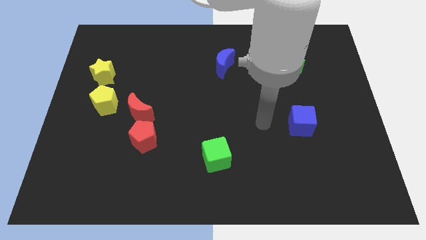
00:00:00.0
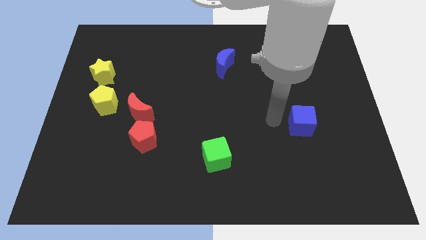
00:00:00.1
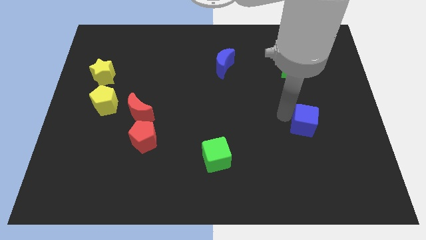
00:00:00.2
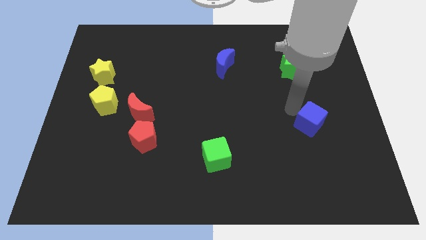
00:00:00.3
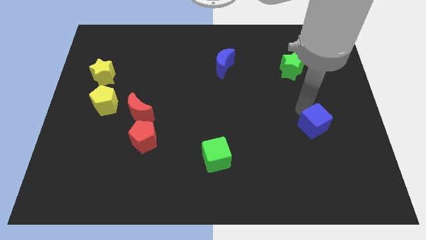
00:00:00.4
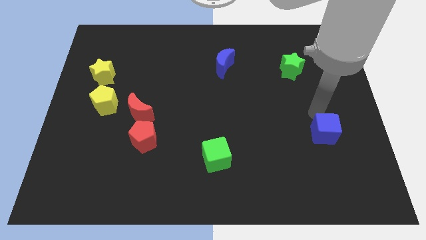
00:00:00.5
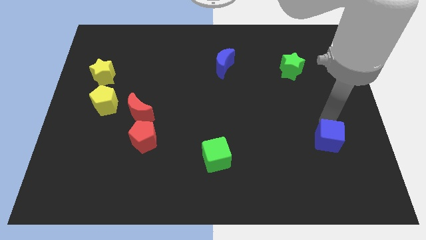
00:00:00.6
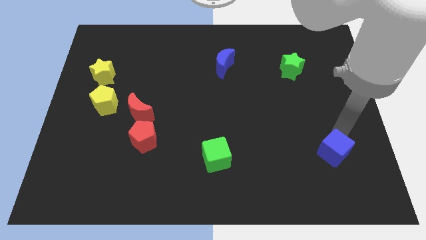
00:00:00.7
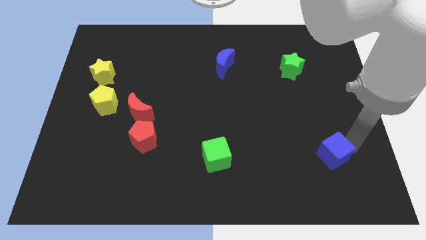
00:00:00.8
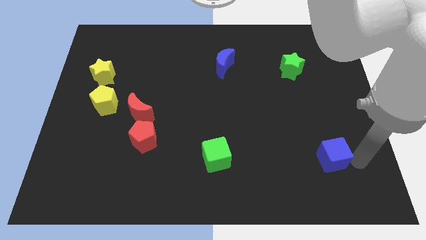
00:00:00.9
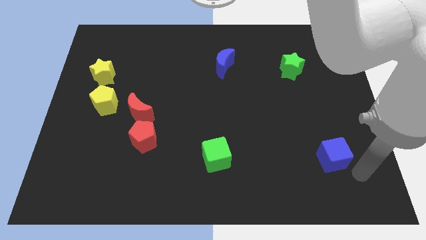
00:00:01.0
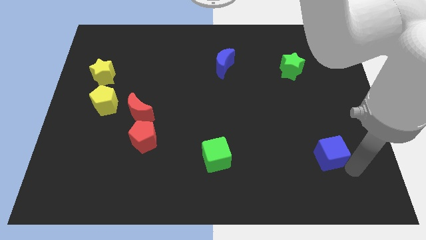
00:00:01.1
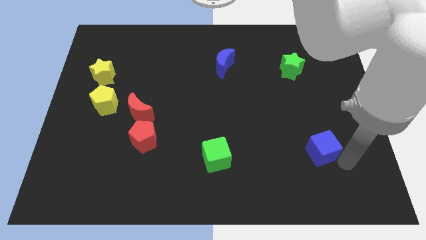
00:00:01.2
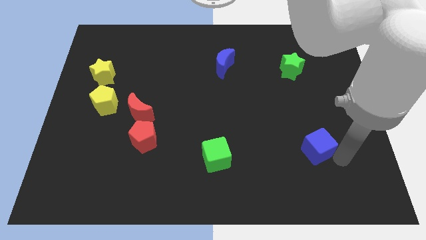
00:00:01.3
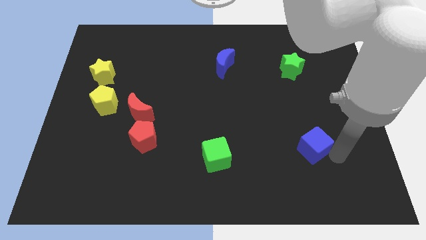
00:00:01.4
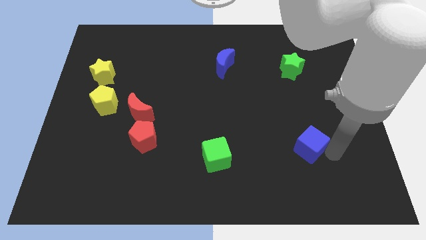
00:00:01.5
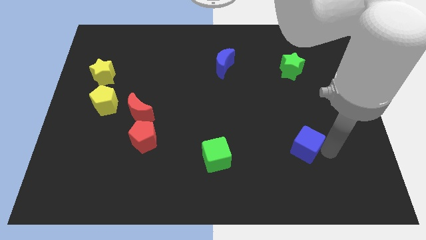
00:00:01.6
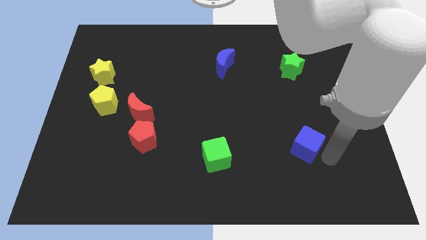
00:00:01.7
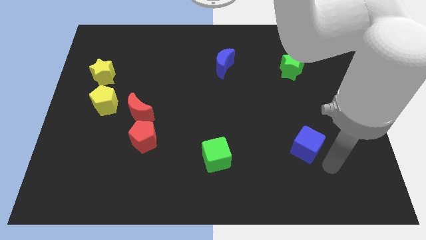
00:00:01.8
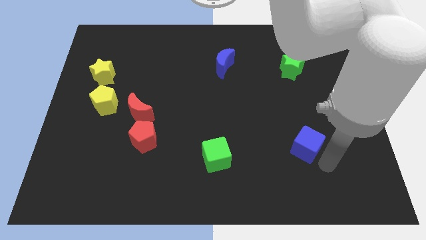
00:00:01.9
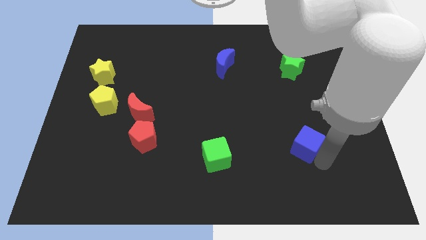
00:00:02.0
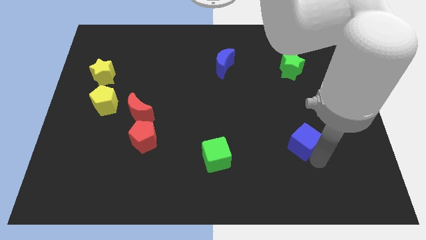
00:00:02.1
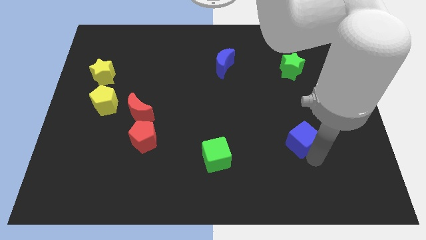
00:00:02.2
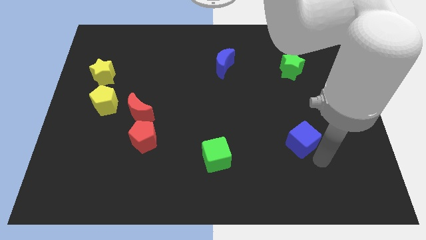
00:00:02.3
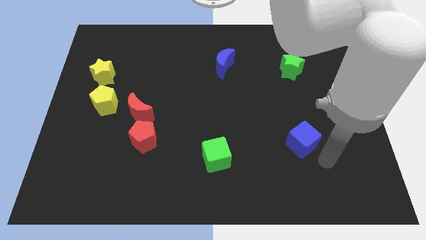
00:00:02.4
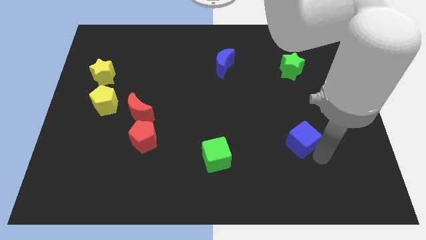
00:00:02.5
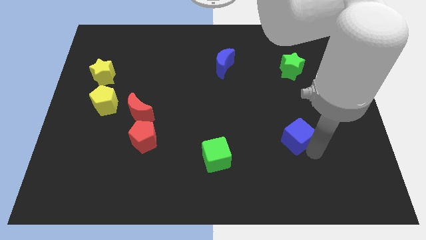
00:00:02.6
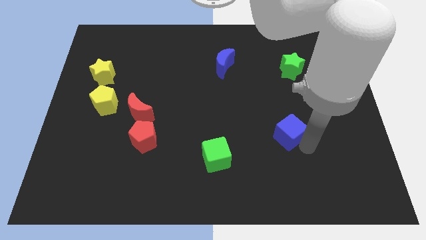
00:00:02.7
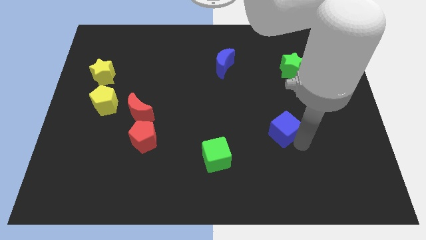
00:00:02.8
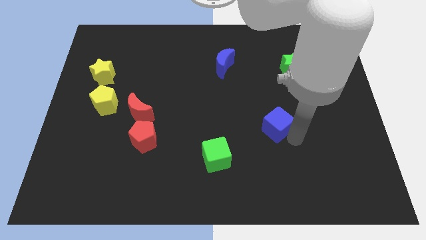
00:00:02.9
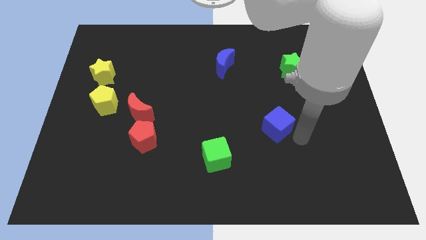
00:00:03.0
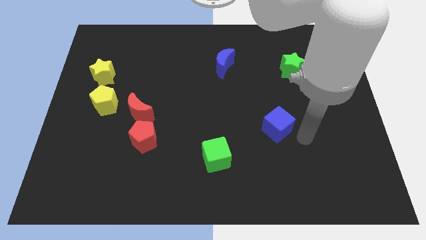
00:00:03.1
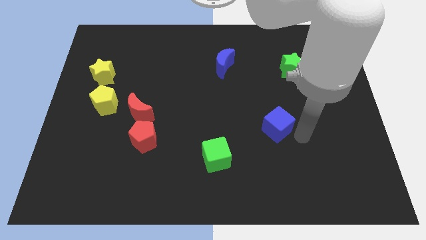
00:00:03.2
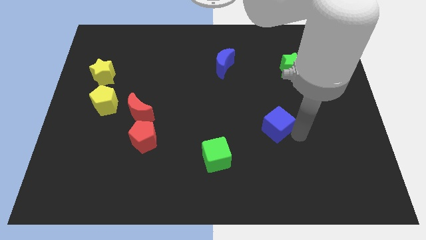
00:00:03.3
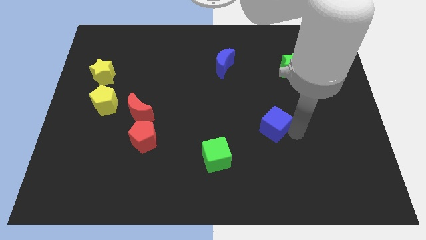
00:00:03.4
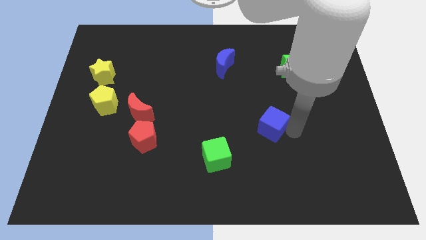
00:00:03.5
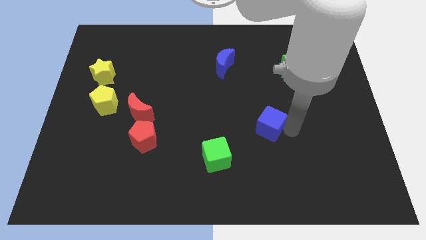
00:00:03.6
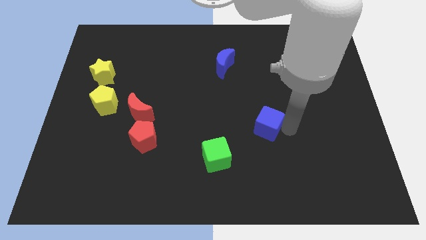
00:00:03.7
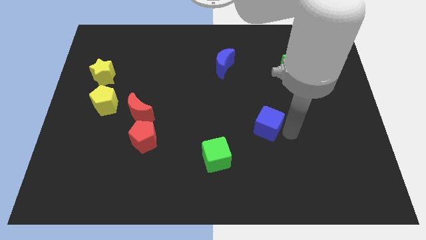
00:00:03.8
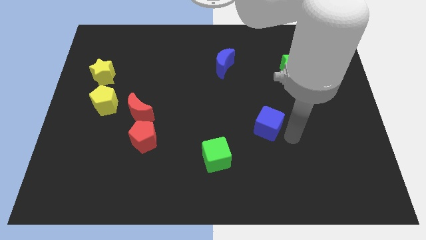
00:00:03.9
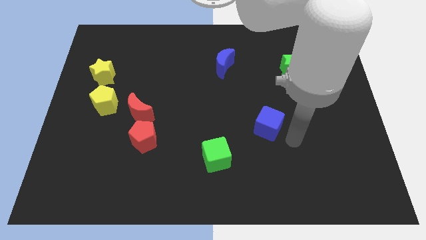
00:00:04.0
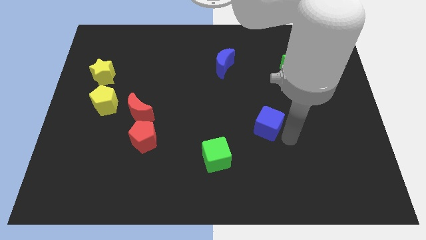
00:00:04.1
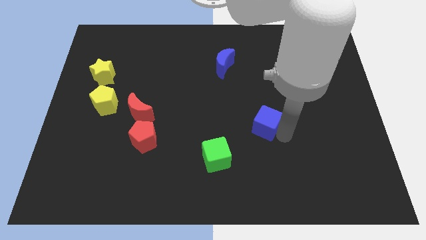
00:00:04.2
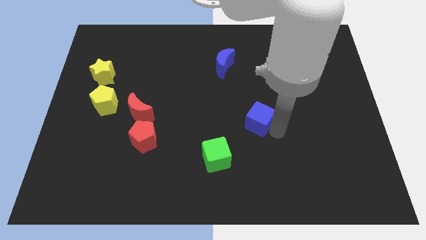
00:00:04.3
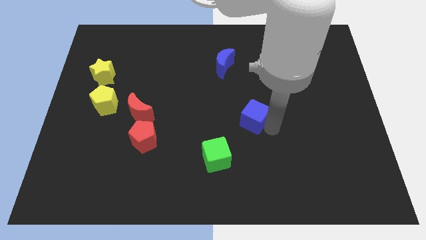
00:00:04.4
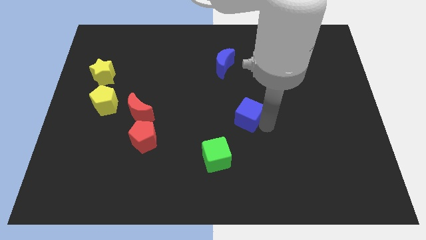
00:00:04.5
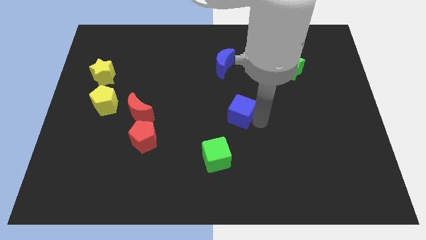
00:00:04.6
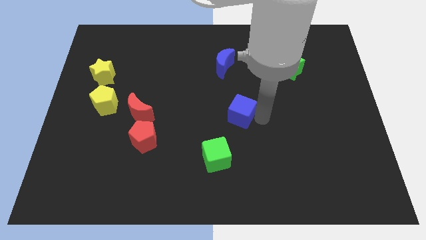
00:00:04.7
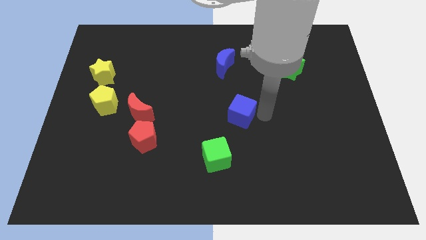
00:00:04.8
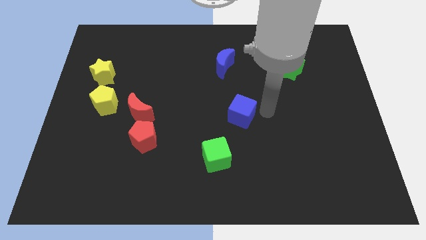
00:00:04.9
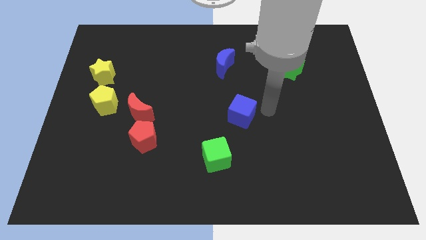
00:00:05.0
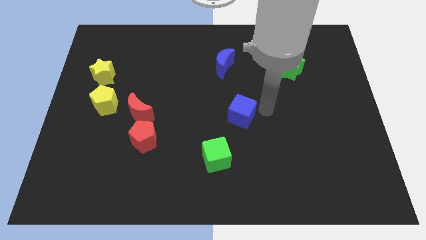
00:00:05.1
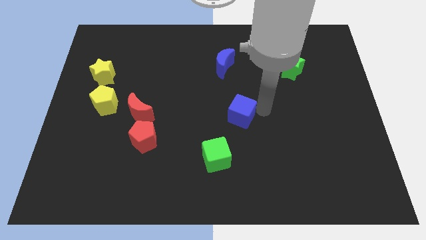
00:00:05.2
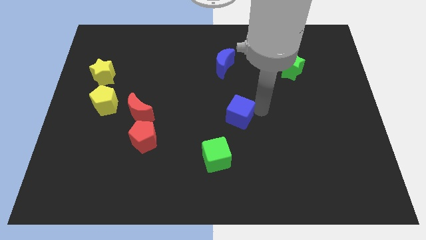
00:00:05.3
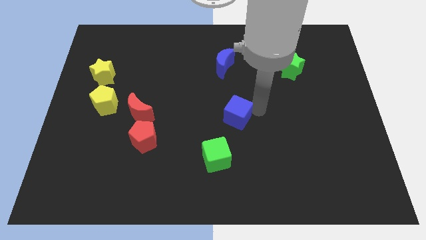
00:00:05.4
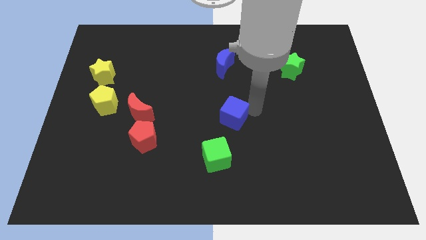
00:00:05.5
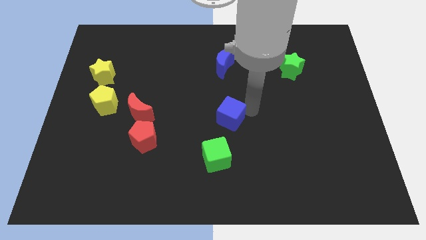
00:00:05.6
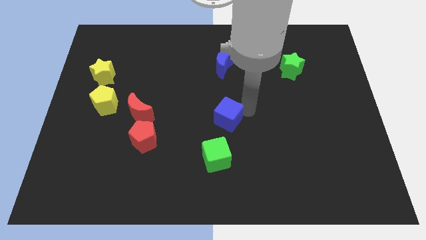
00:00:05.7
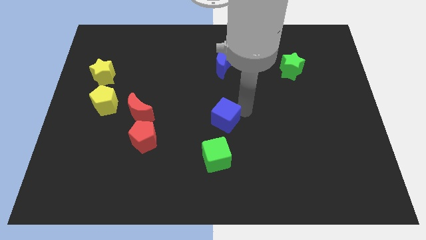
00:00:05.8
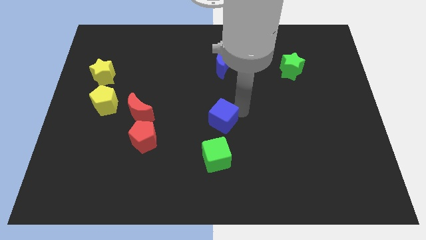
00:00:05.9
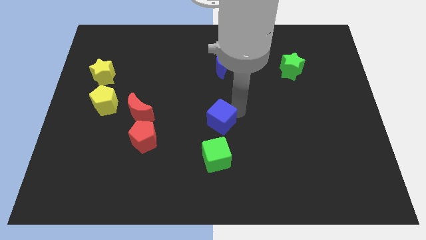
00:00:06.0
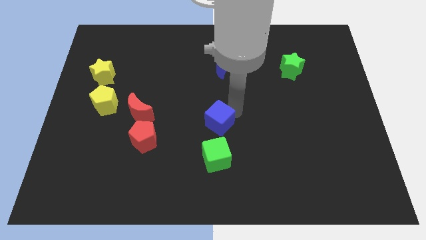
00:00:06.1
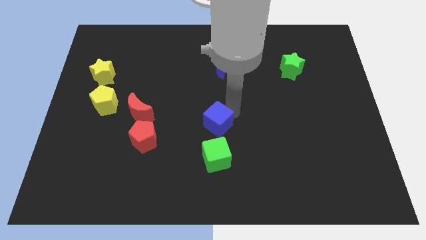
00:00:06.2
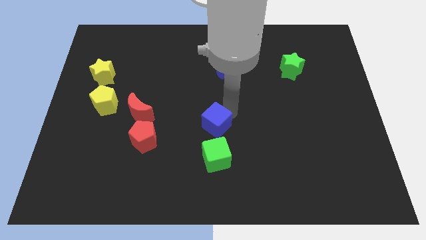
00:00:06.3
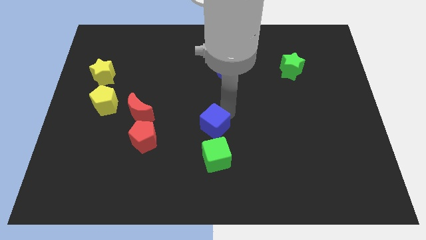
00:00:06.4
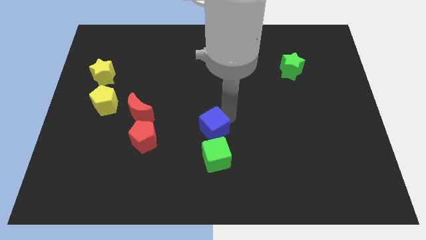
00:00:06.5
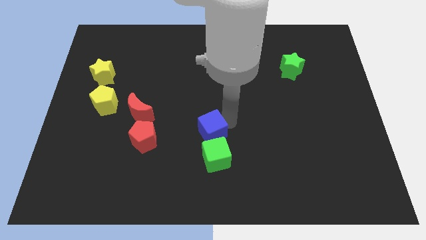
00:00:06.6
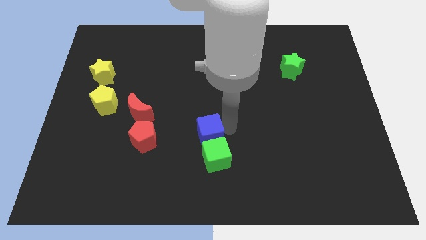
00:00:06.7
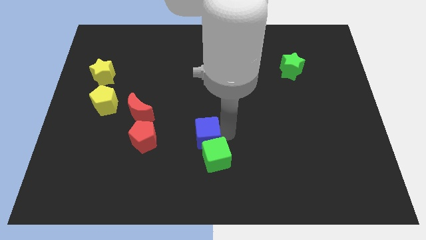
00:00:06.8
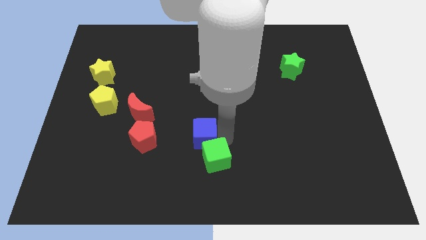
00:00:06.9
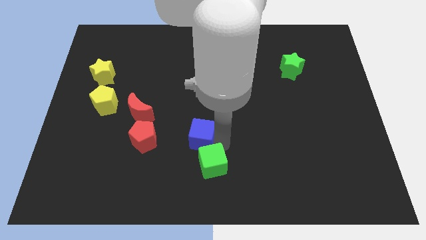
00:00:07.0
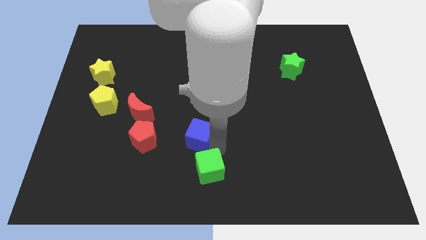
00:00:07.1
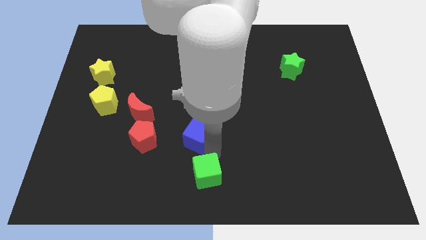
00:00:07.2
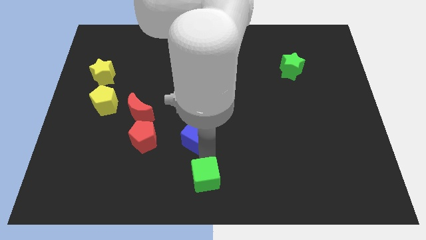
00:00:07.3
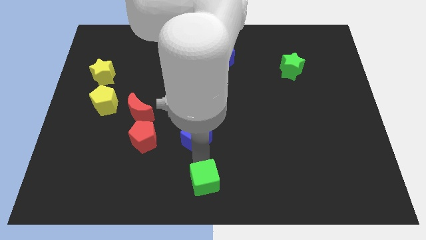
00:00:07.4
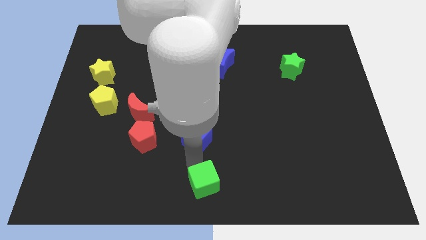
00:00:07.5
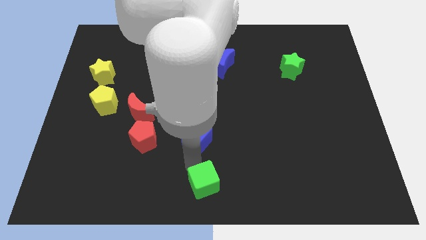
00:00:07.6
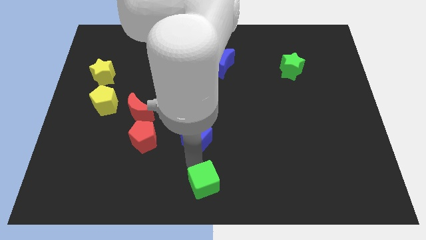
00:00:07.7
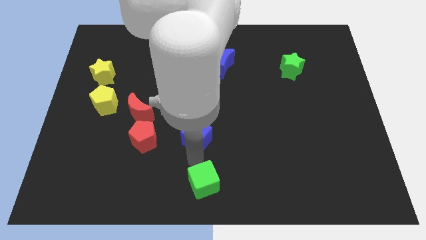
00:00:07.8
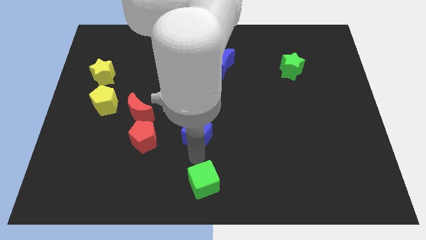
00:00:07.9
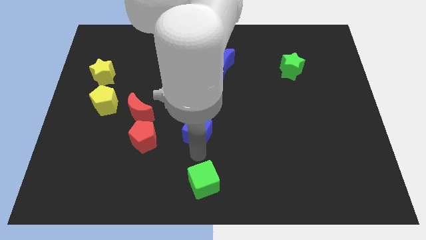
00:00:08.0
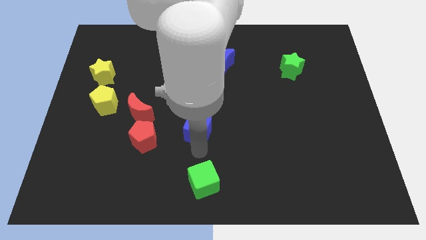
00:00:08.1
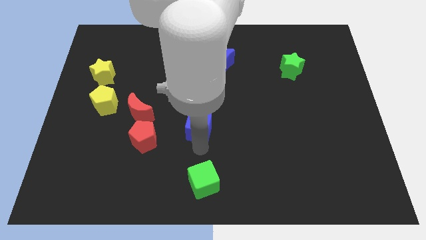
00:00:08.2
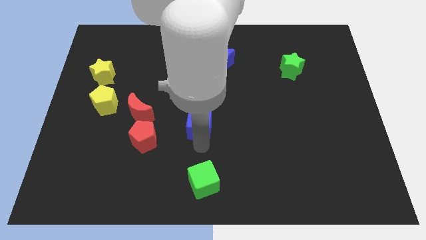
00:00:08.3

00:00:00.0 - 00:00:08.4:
put the blue cube to the right side of the red moon
